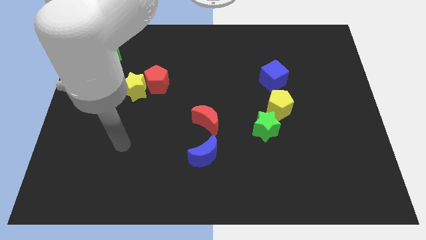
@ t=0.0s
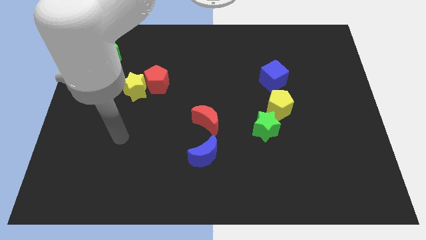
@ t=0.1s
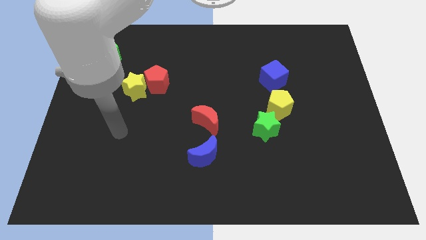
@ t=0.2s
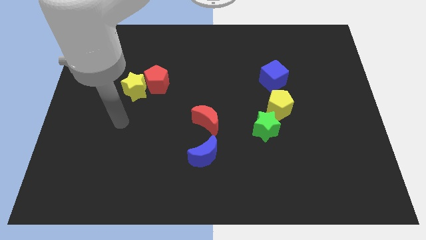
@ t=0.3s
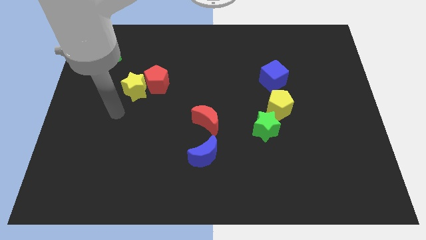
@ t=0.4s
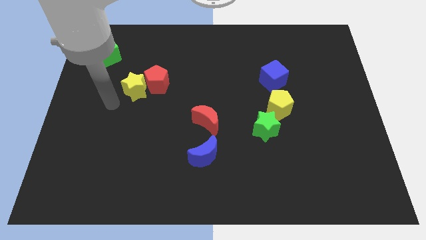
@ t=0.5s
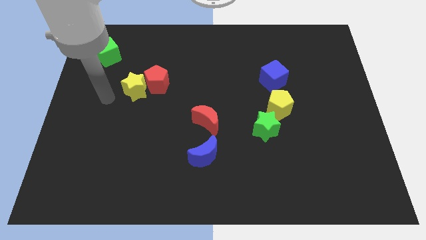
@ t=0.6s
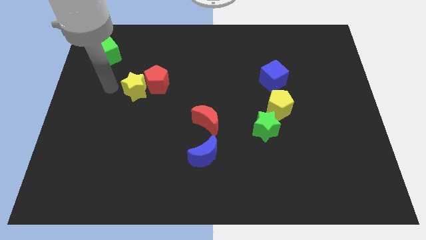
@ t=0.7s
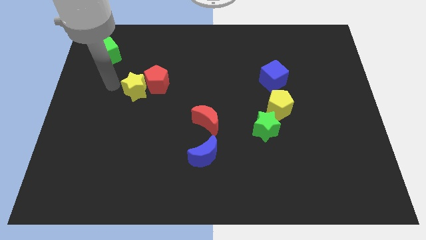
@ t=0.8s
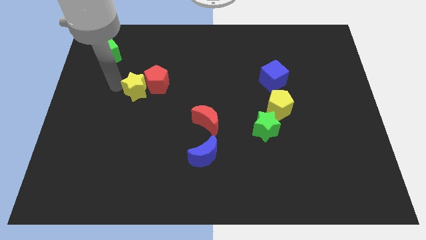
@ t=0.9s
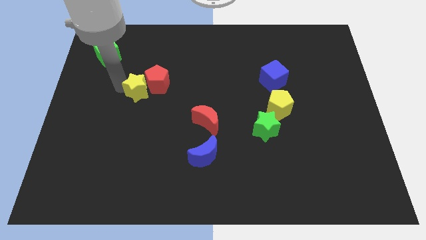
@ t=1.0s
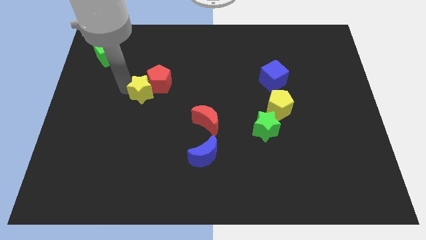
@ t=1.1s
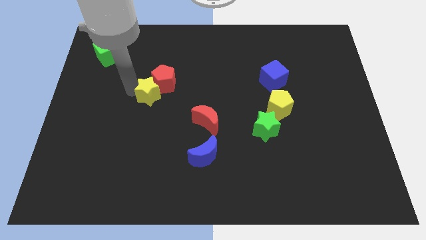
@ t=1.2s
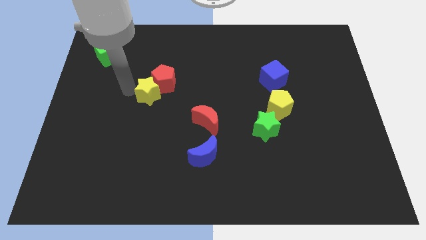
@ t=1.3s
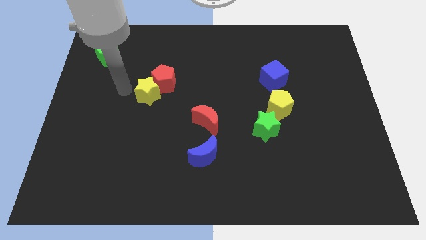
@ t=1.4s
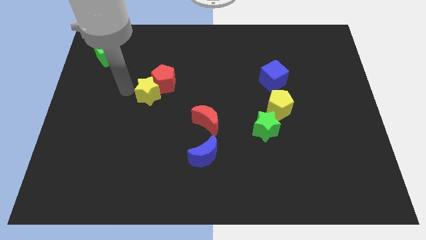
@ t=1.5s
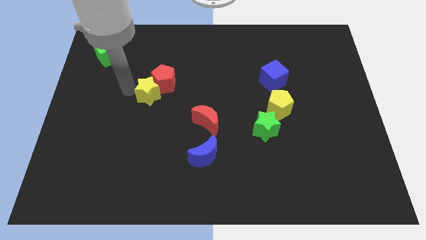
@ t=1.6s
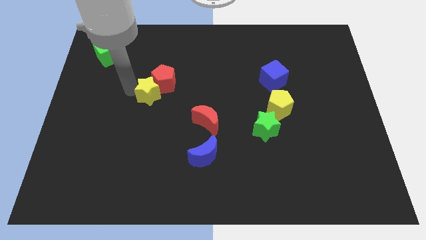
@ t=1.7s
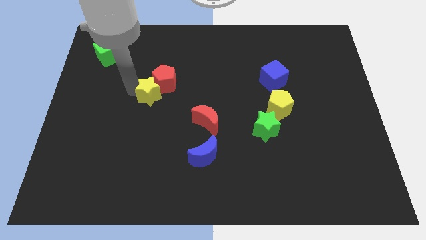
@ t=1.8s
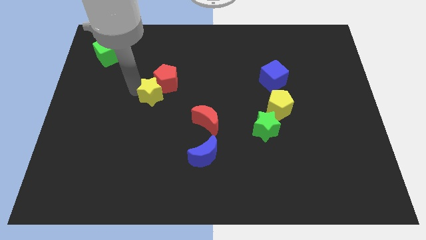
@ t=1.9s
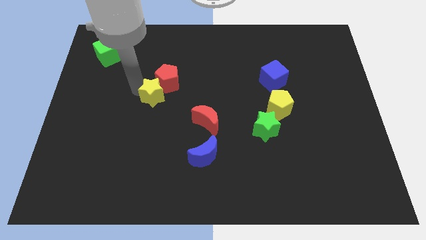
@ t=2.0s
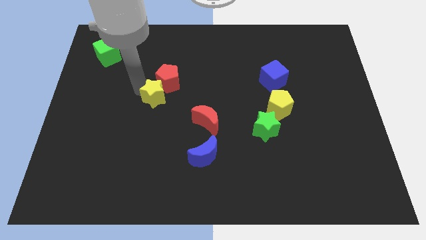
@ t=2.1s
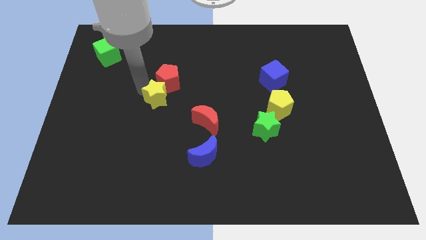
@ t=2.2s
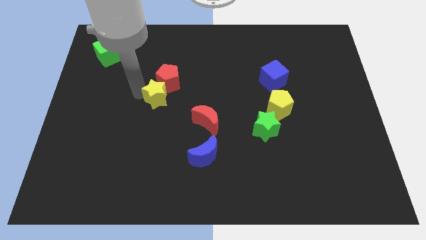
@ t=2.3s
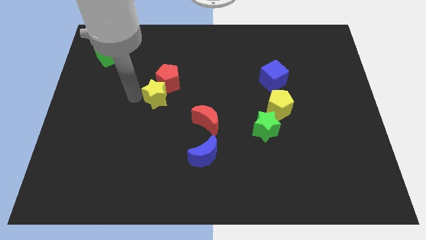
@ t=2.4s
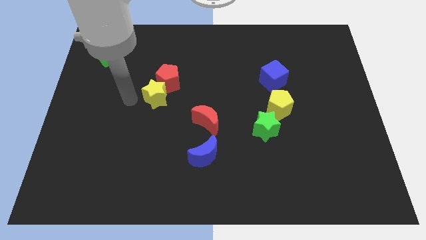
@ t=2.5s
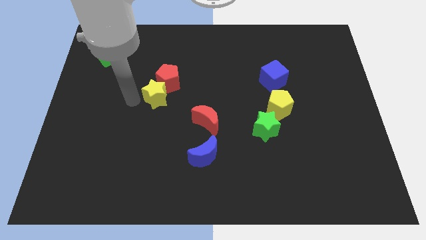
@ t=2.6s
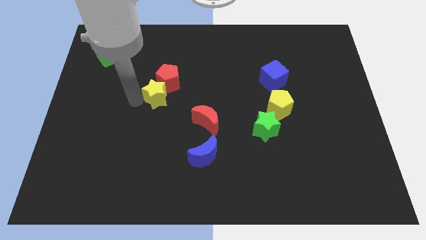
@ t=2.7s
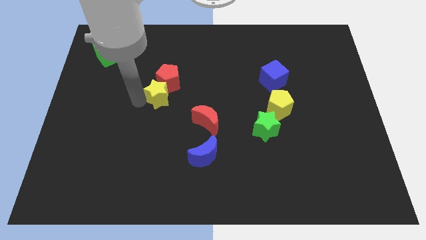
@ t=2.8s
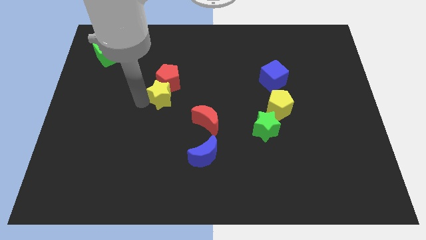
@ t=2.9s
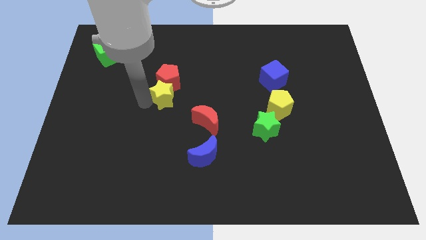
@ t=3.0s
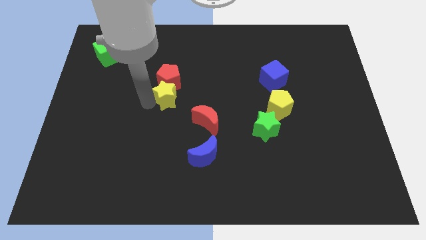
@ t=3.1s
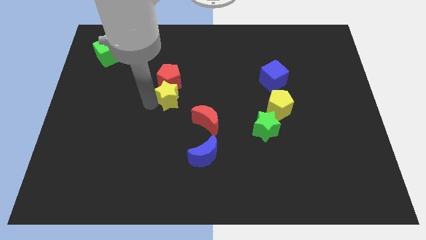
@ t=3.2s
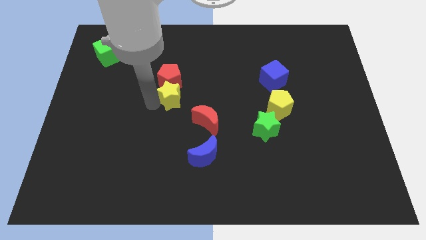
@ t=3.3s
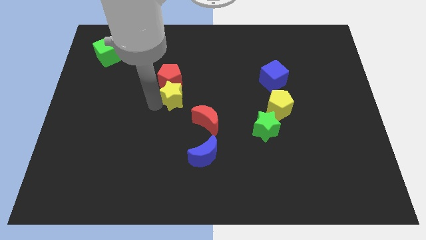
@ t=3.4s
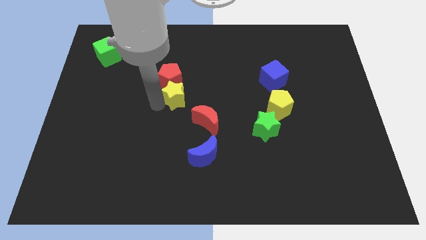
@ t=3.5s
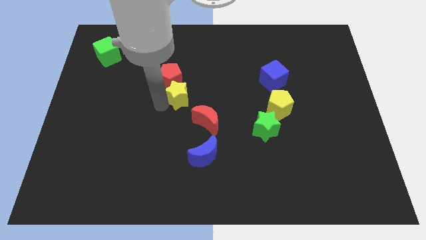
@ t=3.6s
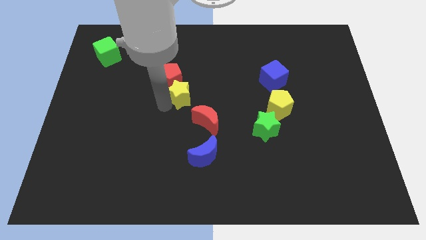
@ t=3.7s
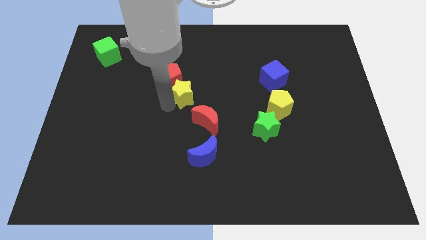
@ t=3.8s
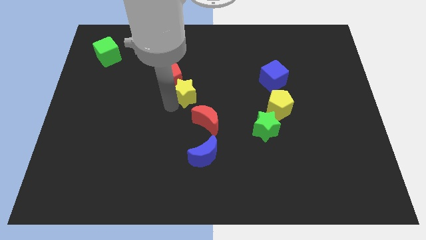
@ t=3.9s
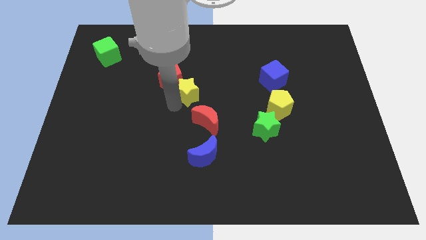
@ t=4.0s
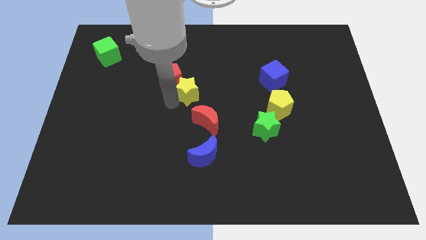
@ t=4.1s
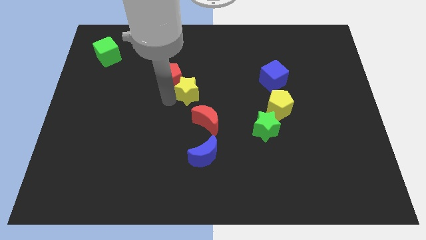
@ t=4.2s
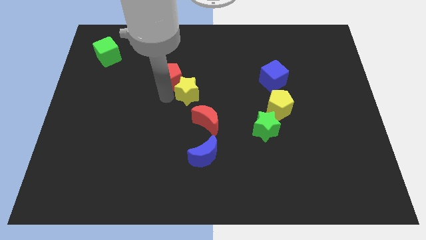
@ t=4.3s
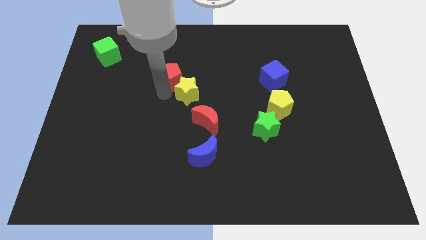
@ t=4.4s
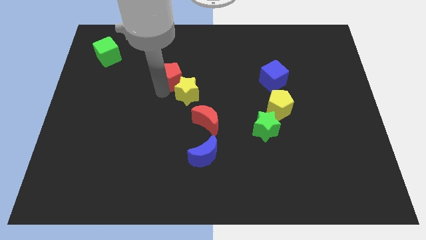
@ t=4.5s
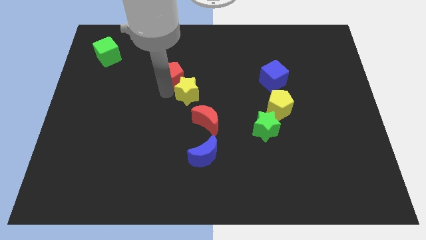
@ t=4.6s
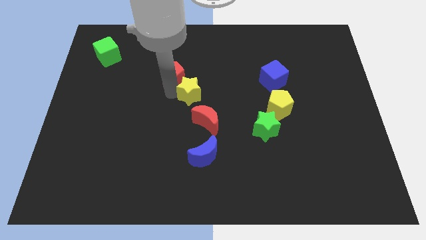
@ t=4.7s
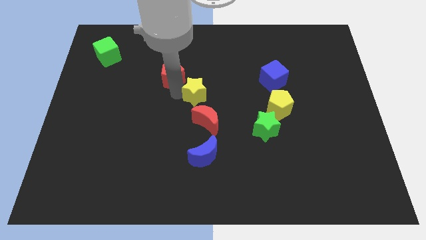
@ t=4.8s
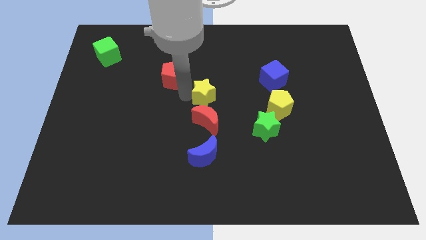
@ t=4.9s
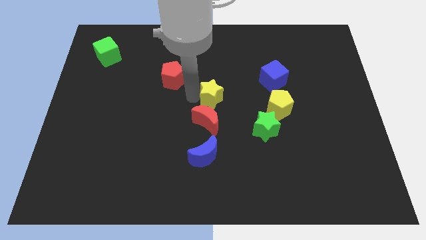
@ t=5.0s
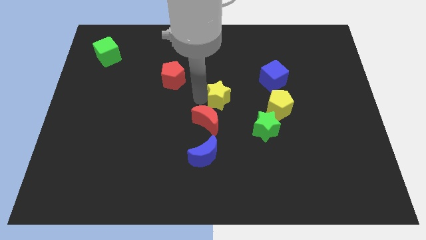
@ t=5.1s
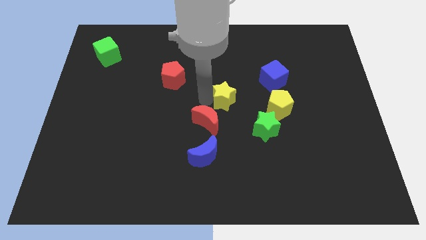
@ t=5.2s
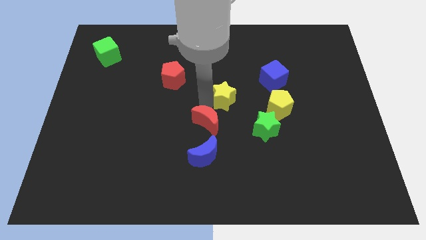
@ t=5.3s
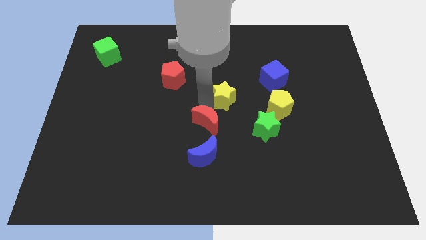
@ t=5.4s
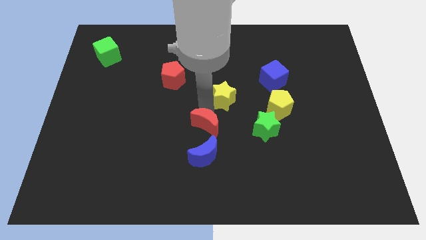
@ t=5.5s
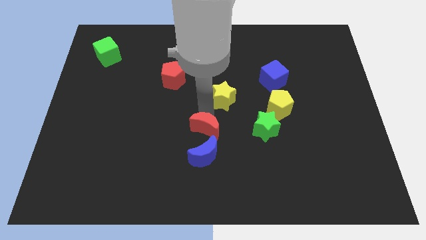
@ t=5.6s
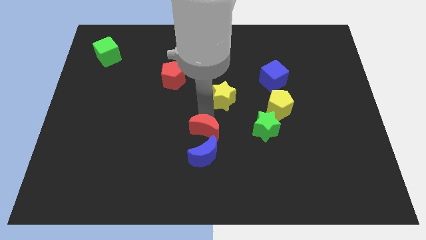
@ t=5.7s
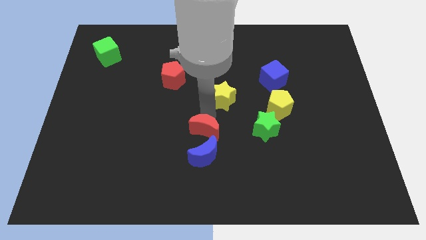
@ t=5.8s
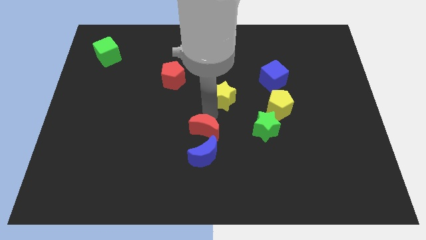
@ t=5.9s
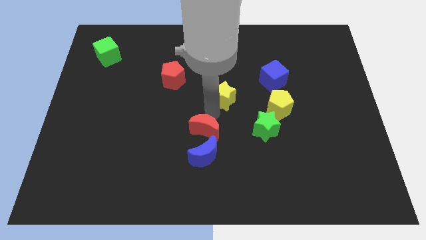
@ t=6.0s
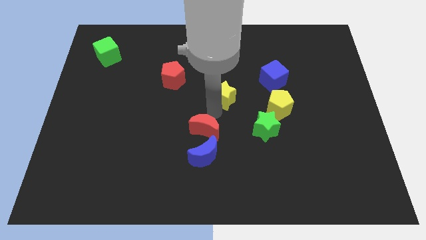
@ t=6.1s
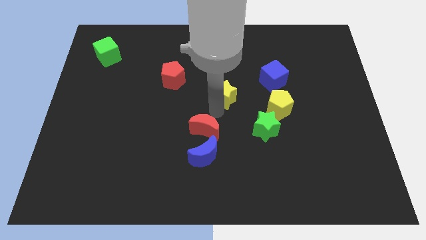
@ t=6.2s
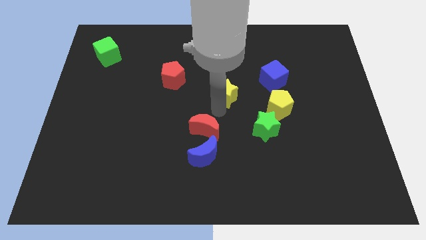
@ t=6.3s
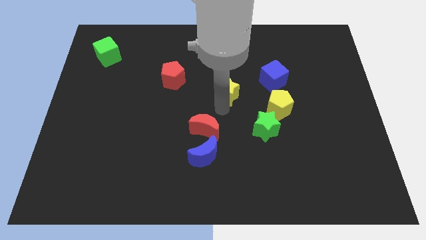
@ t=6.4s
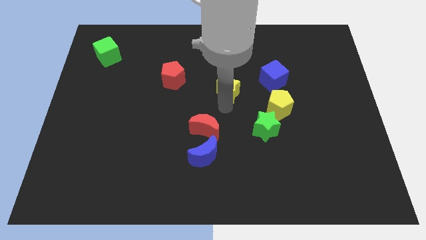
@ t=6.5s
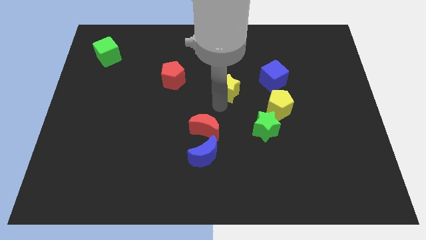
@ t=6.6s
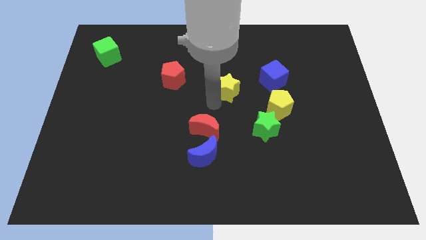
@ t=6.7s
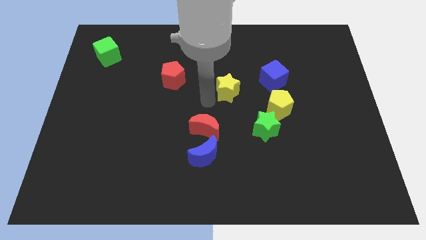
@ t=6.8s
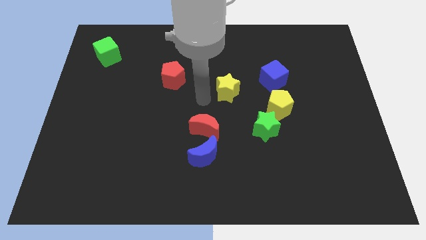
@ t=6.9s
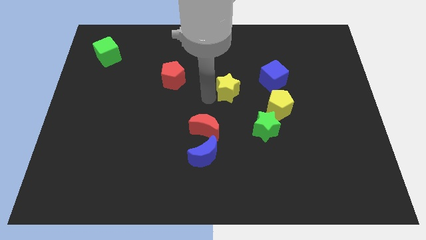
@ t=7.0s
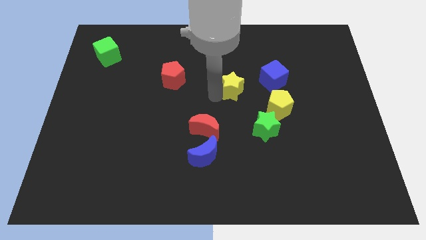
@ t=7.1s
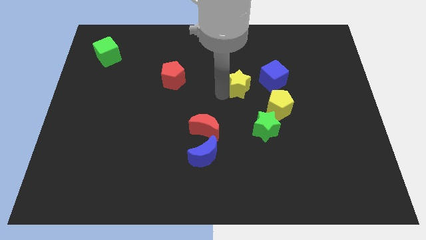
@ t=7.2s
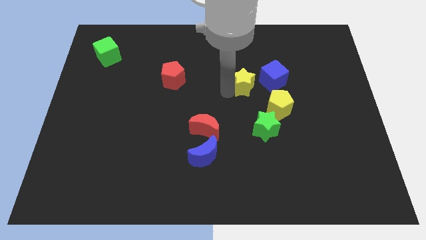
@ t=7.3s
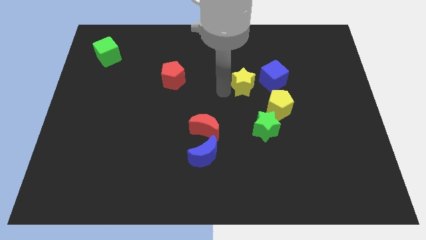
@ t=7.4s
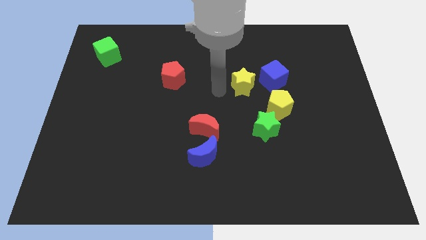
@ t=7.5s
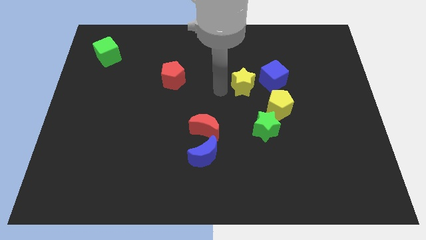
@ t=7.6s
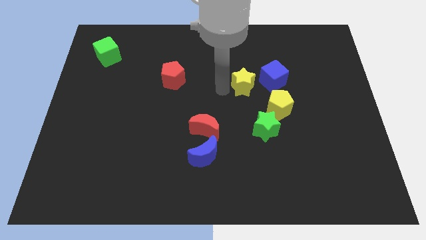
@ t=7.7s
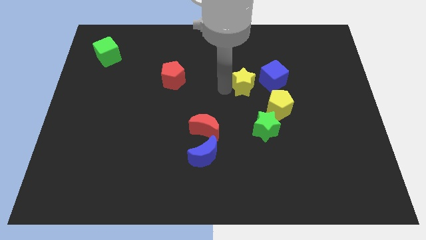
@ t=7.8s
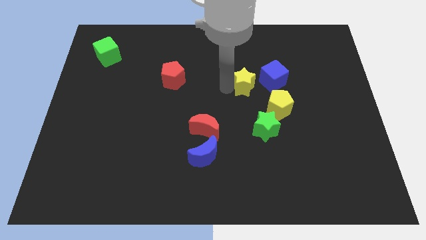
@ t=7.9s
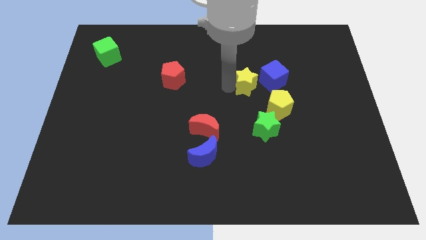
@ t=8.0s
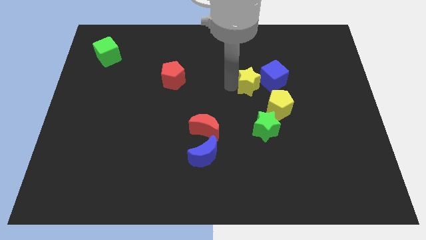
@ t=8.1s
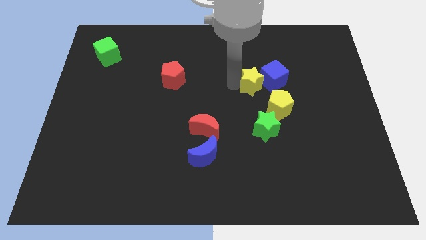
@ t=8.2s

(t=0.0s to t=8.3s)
put the yellow star towards the blue cube
